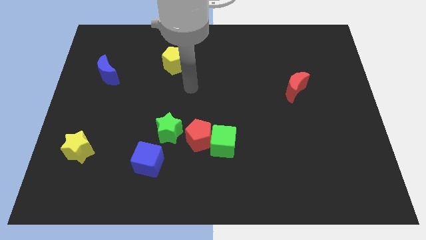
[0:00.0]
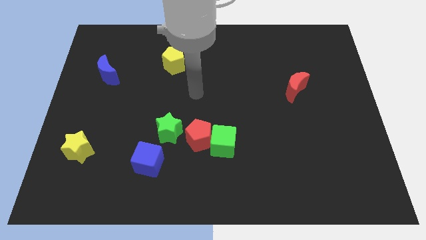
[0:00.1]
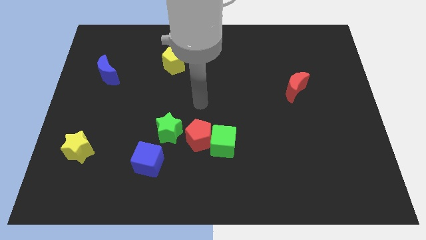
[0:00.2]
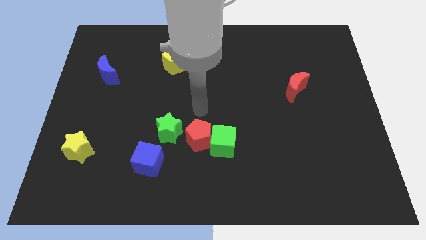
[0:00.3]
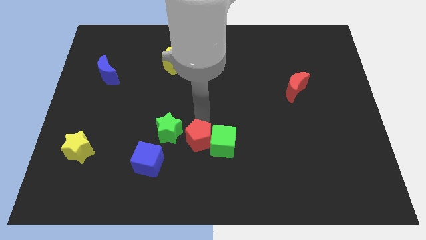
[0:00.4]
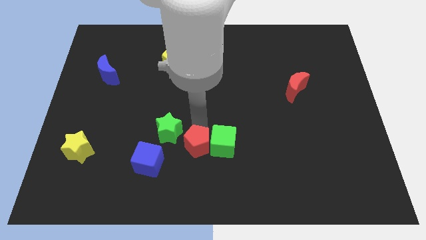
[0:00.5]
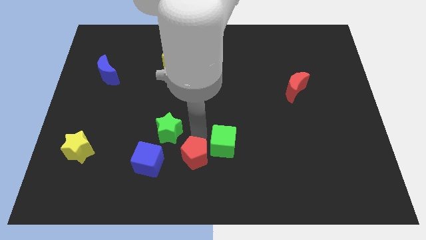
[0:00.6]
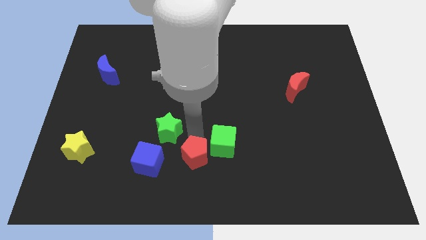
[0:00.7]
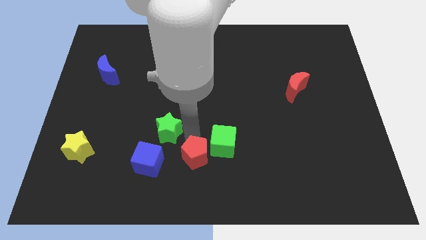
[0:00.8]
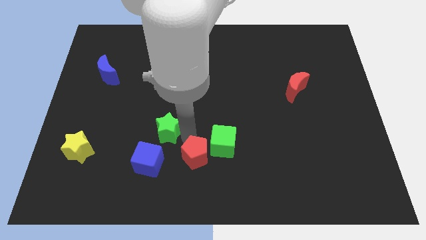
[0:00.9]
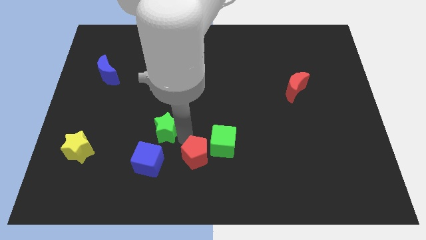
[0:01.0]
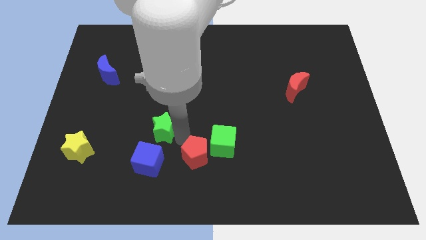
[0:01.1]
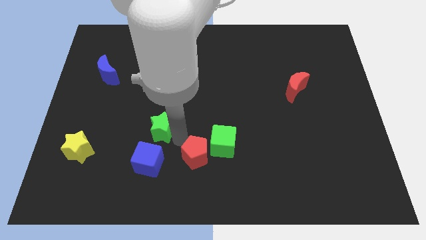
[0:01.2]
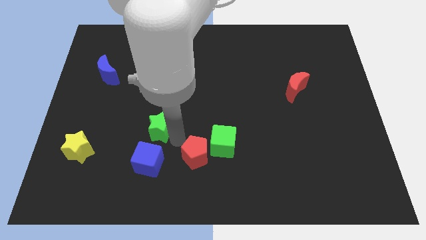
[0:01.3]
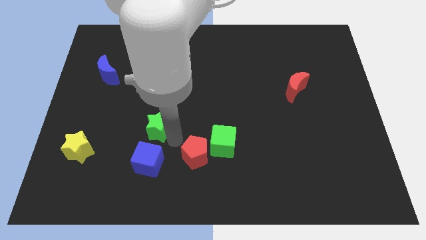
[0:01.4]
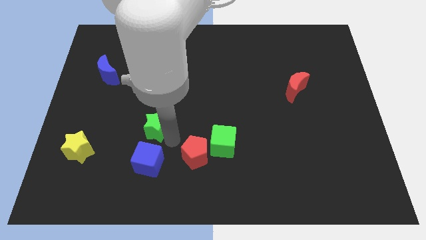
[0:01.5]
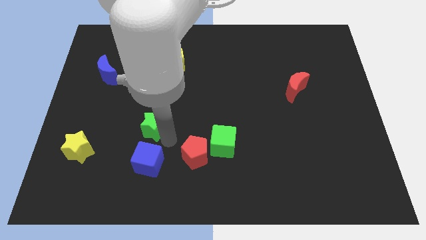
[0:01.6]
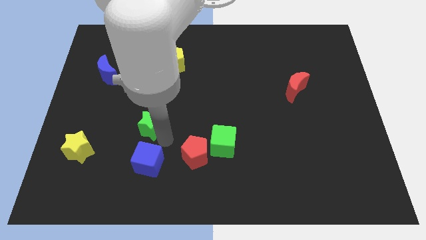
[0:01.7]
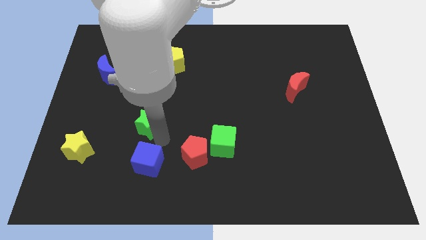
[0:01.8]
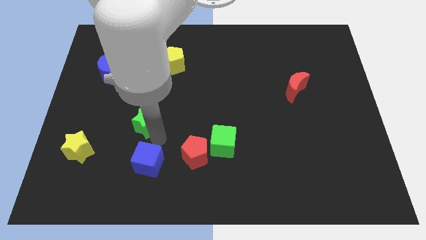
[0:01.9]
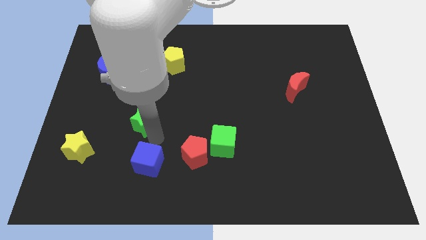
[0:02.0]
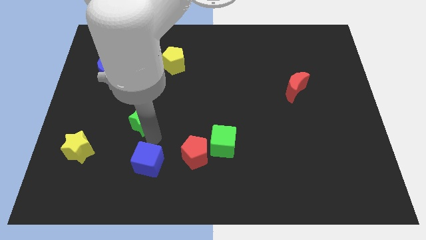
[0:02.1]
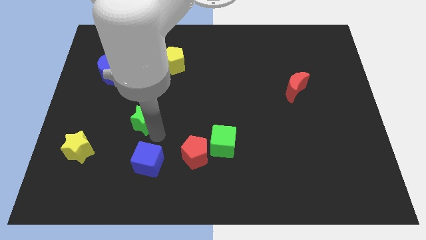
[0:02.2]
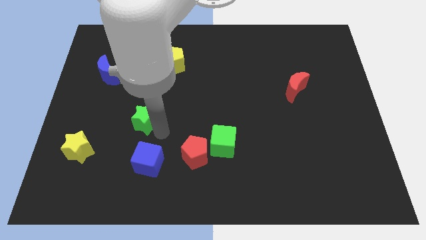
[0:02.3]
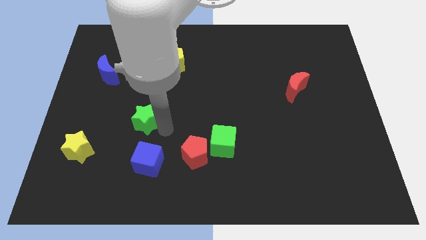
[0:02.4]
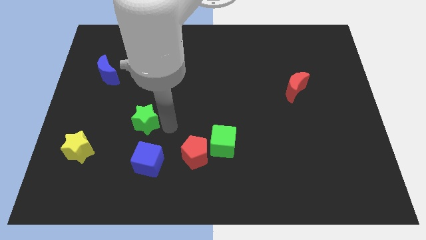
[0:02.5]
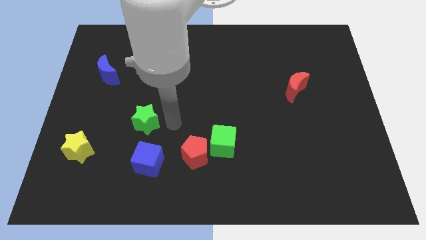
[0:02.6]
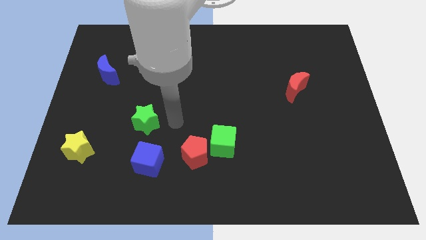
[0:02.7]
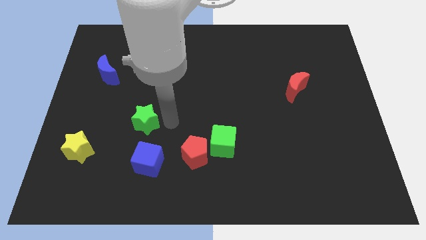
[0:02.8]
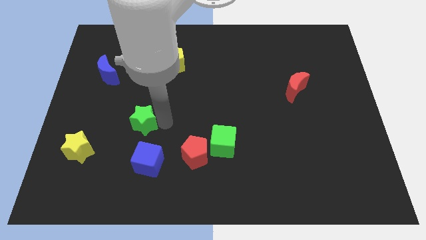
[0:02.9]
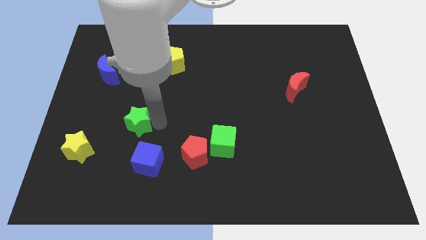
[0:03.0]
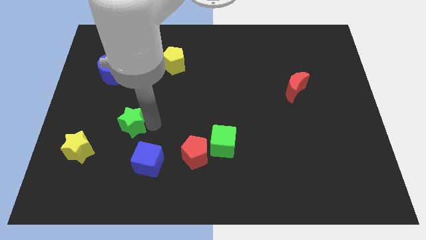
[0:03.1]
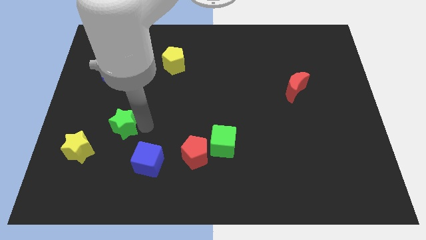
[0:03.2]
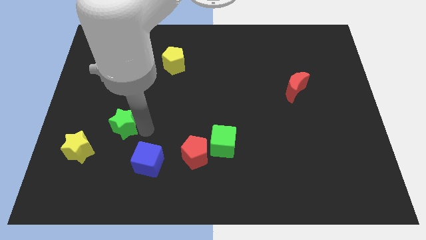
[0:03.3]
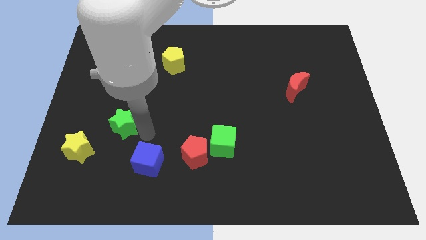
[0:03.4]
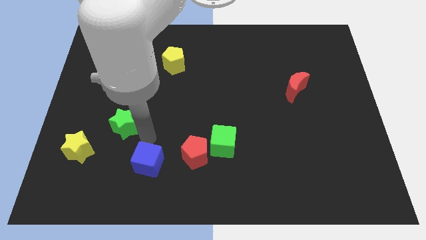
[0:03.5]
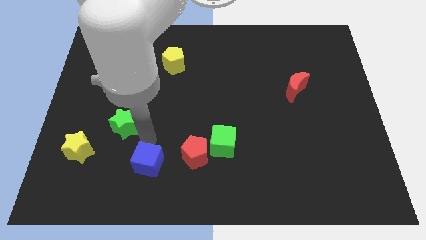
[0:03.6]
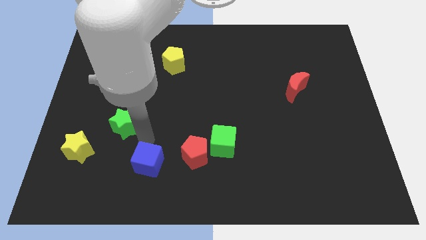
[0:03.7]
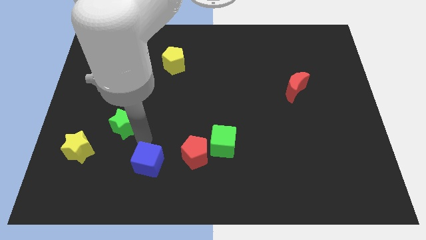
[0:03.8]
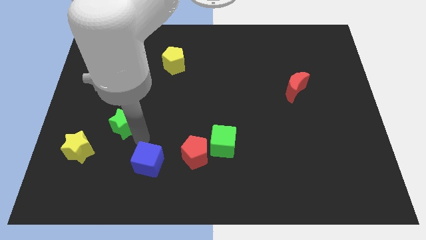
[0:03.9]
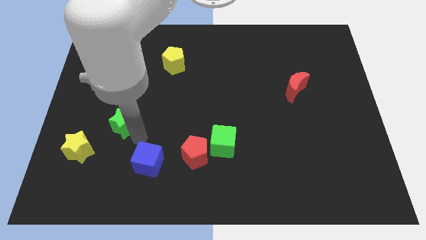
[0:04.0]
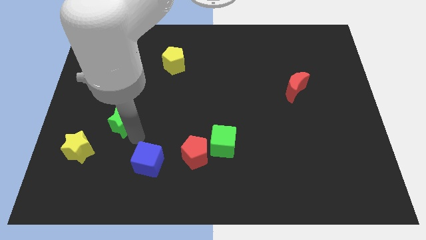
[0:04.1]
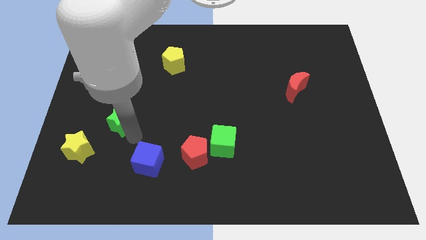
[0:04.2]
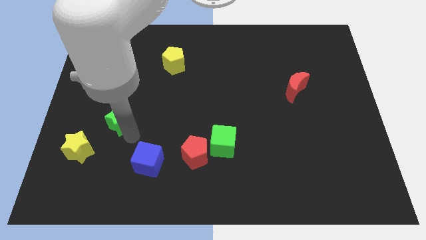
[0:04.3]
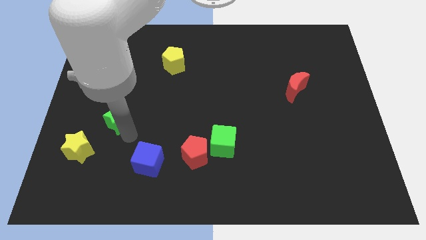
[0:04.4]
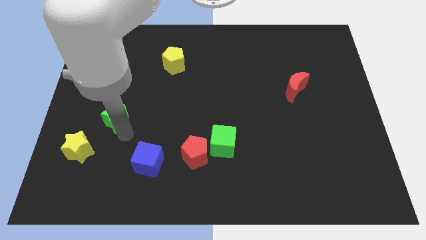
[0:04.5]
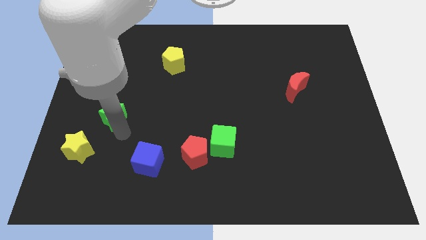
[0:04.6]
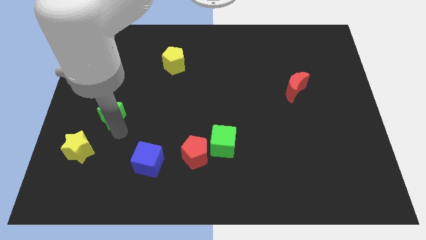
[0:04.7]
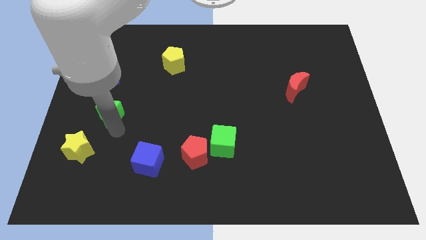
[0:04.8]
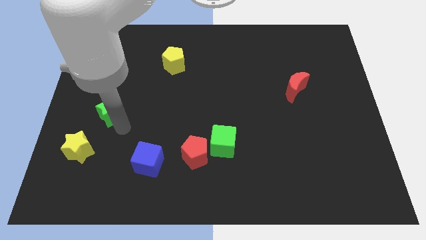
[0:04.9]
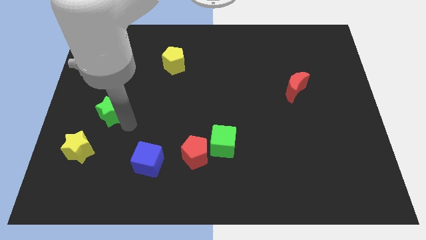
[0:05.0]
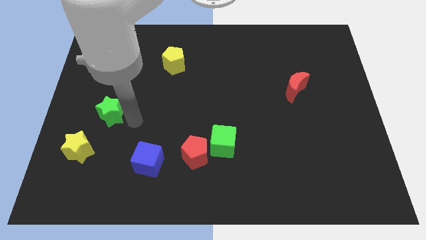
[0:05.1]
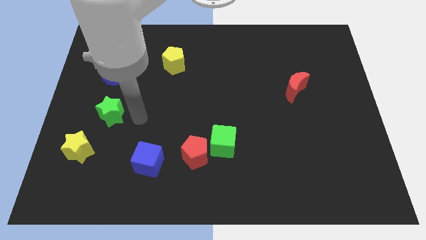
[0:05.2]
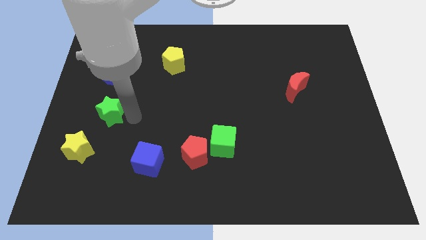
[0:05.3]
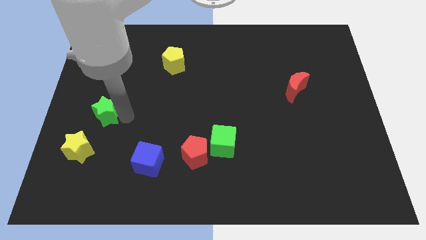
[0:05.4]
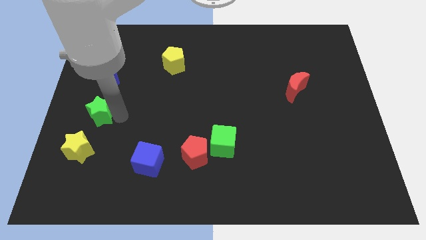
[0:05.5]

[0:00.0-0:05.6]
push the green star to the left side

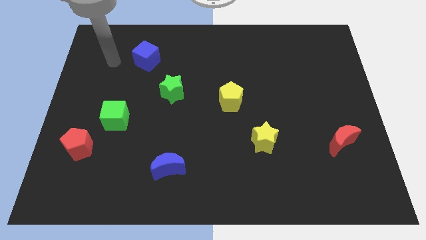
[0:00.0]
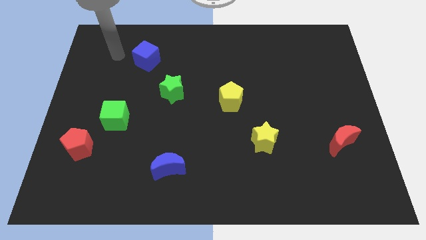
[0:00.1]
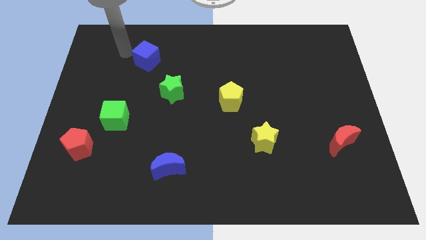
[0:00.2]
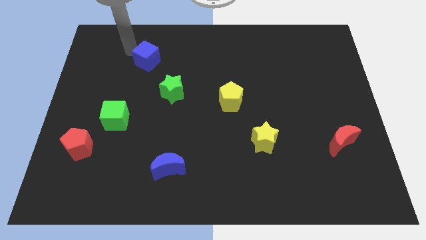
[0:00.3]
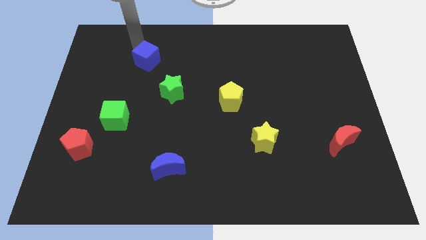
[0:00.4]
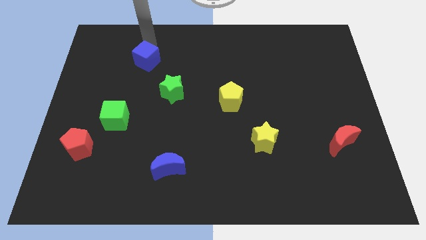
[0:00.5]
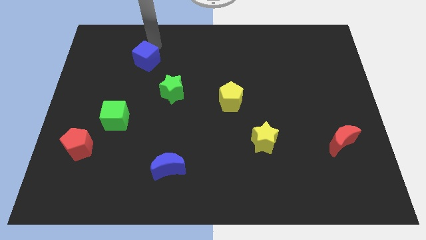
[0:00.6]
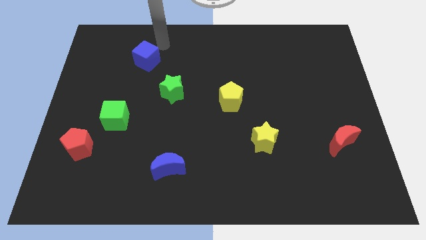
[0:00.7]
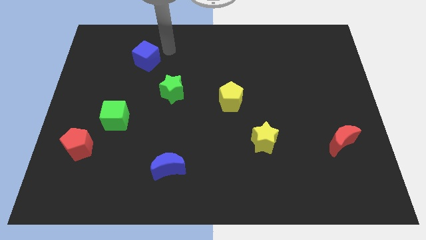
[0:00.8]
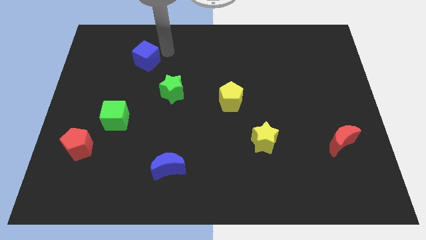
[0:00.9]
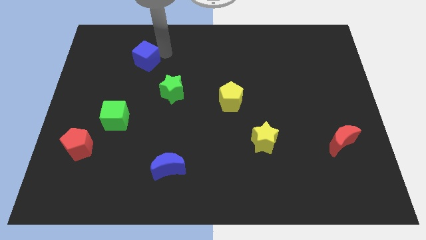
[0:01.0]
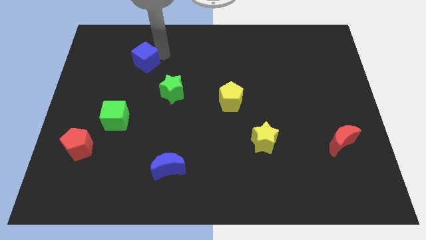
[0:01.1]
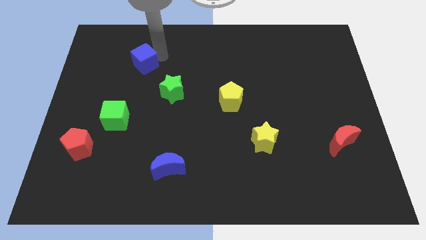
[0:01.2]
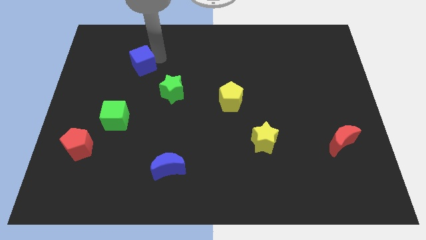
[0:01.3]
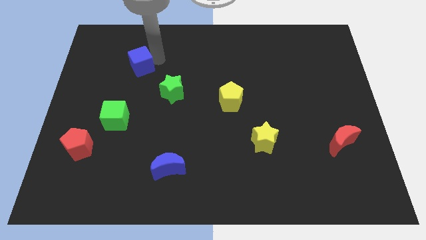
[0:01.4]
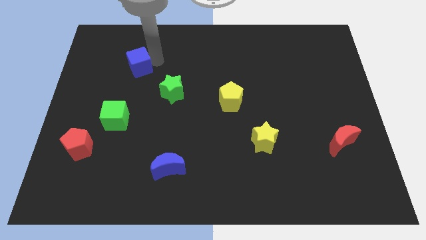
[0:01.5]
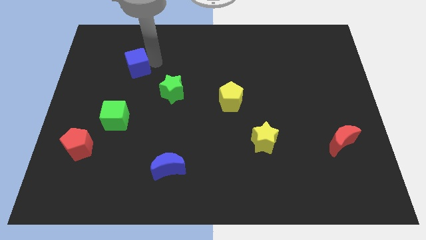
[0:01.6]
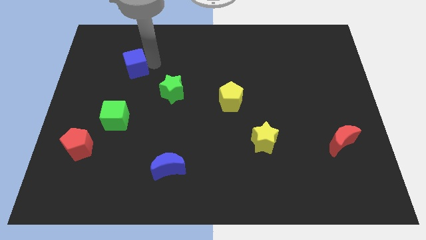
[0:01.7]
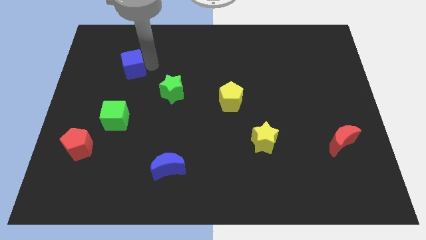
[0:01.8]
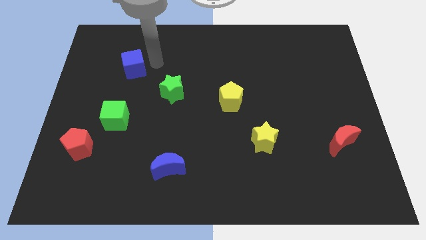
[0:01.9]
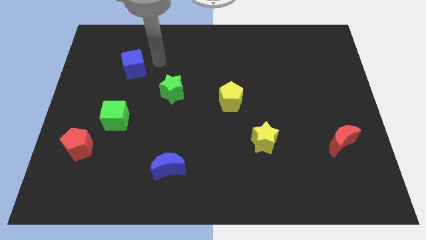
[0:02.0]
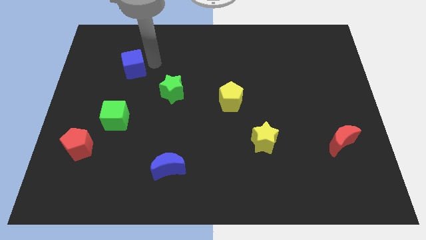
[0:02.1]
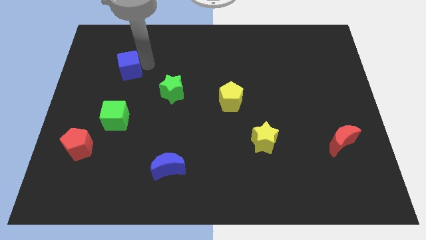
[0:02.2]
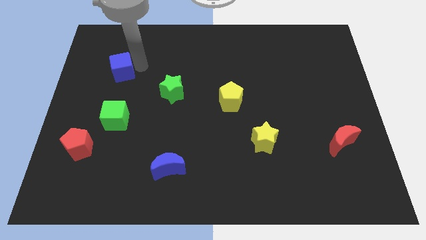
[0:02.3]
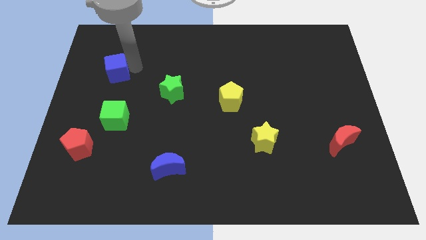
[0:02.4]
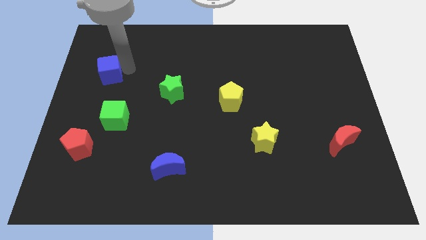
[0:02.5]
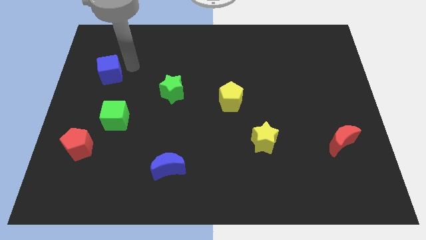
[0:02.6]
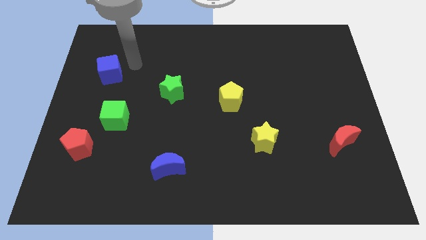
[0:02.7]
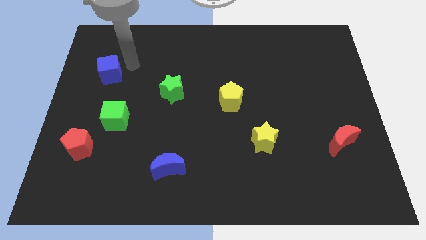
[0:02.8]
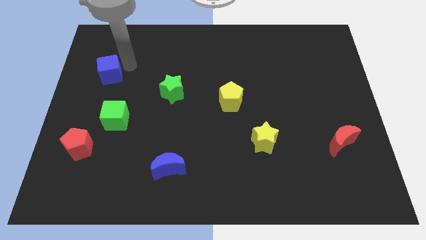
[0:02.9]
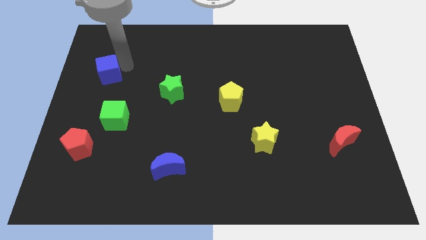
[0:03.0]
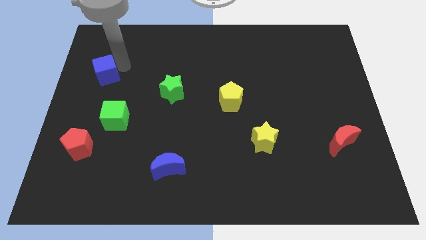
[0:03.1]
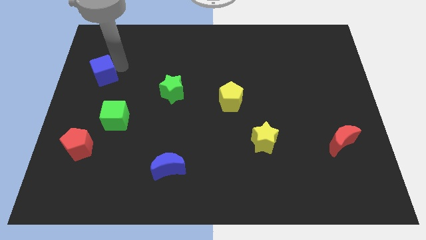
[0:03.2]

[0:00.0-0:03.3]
push the blue cube to the left side
